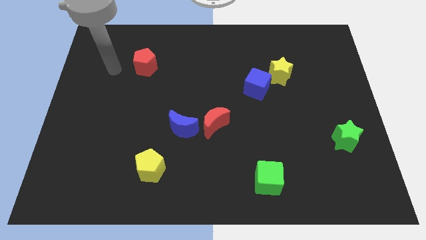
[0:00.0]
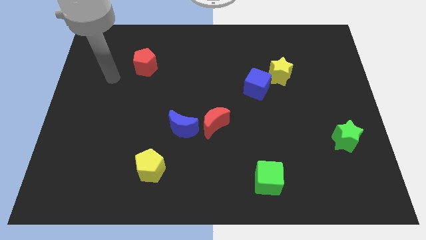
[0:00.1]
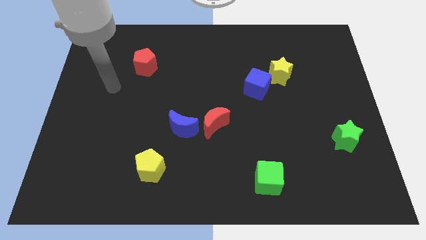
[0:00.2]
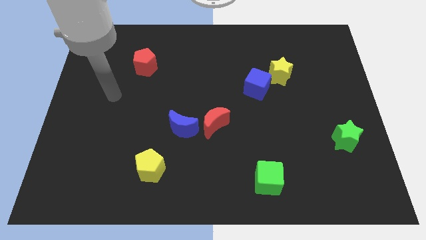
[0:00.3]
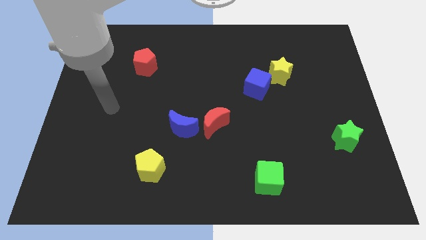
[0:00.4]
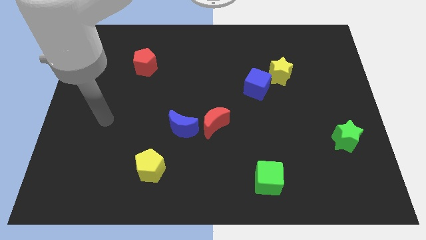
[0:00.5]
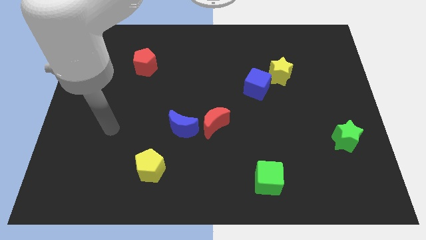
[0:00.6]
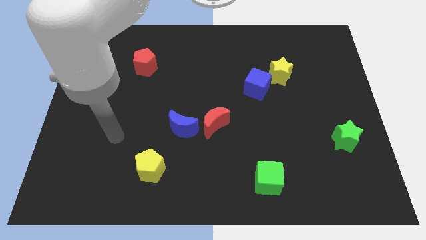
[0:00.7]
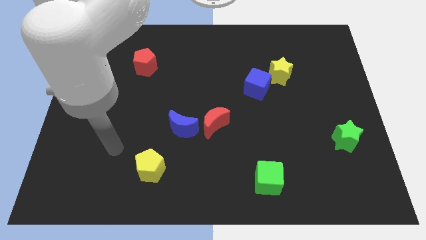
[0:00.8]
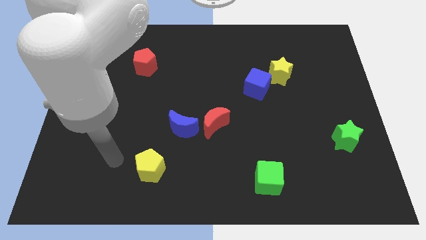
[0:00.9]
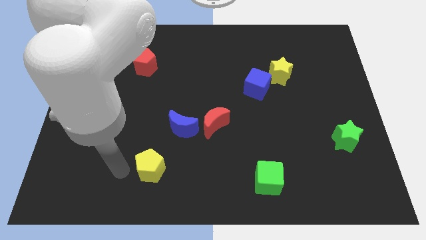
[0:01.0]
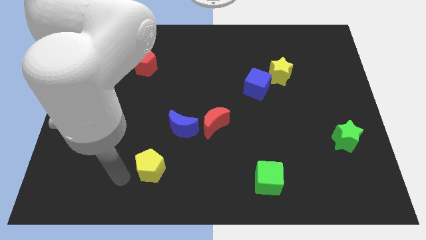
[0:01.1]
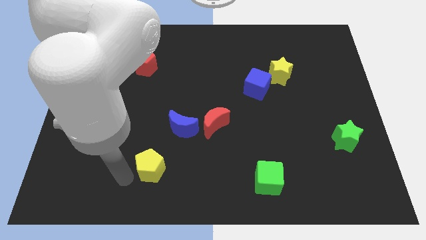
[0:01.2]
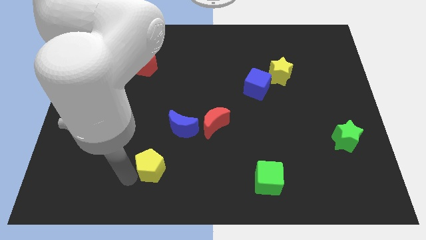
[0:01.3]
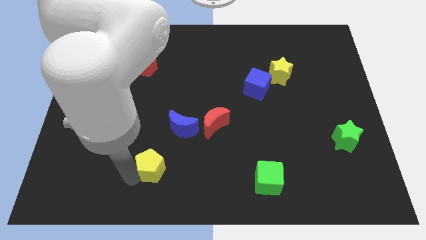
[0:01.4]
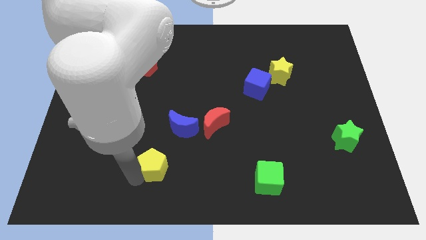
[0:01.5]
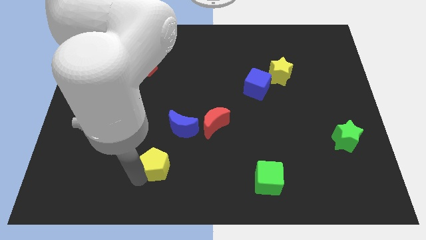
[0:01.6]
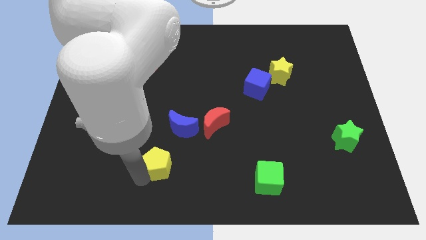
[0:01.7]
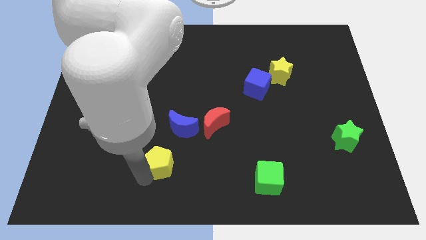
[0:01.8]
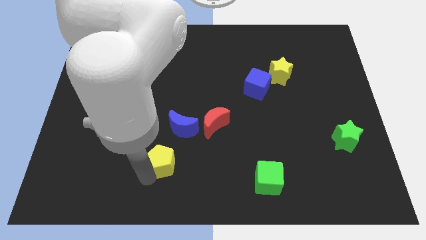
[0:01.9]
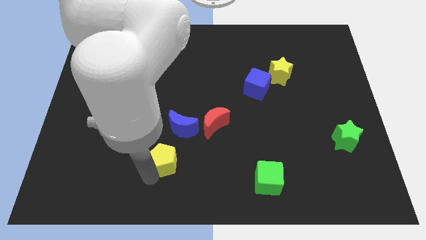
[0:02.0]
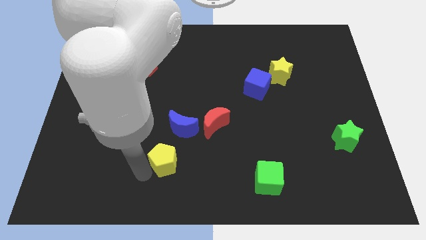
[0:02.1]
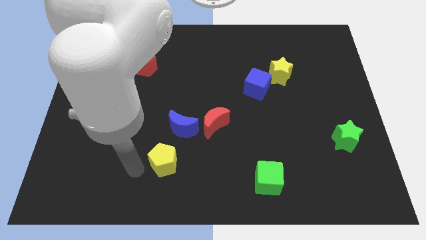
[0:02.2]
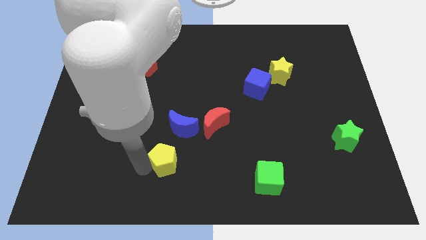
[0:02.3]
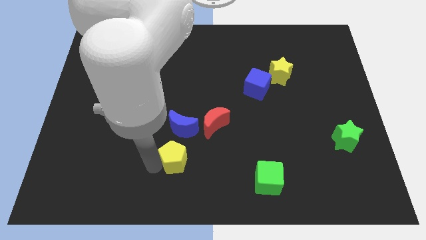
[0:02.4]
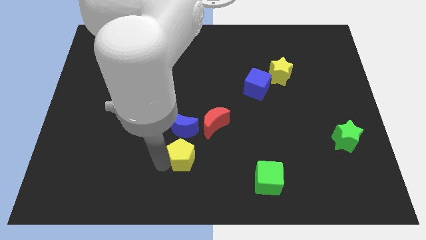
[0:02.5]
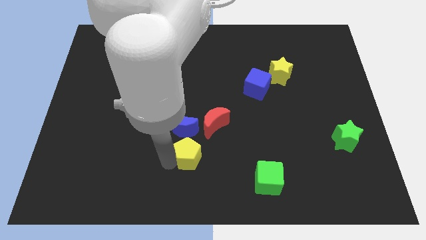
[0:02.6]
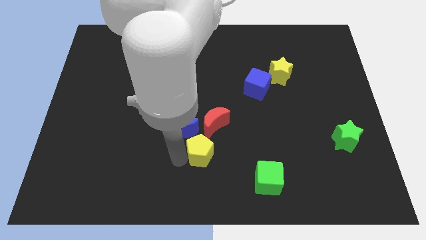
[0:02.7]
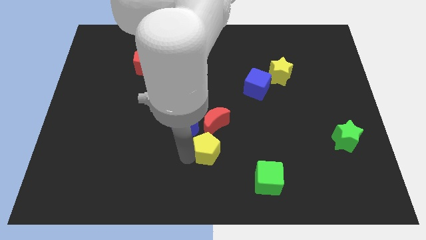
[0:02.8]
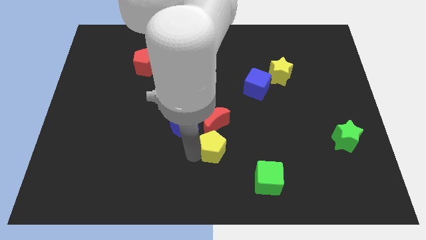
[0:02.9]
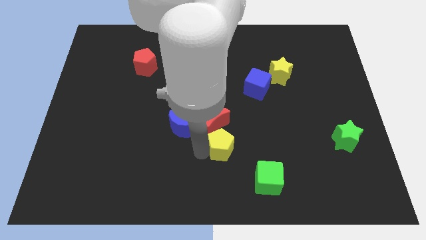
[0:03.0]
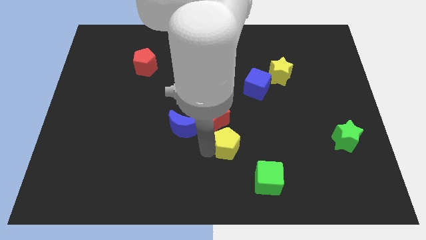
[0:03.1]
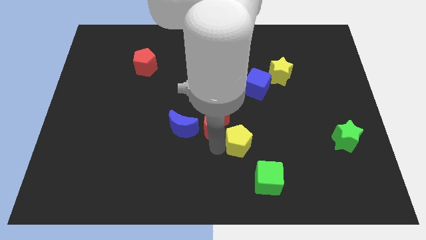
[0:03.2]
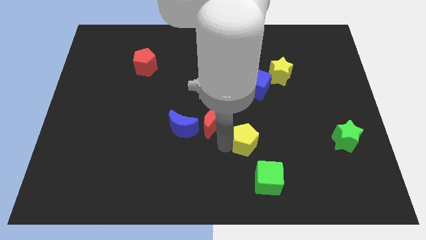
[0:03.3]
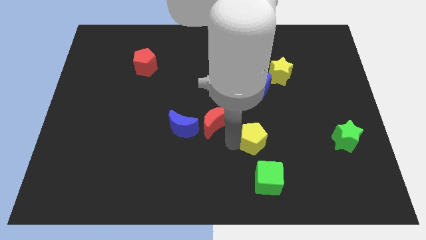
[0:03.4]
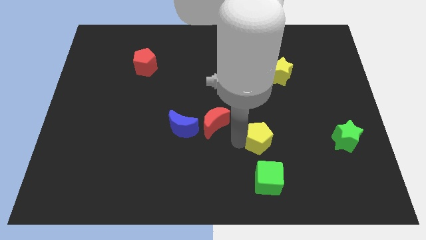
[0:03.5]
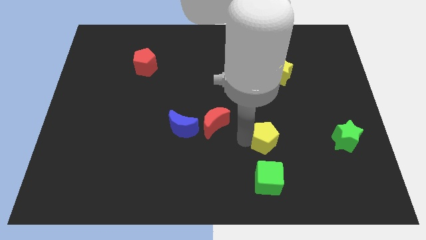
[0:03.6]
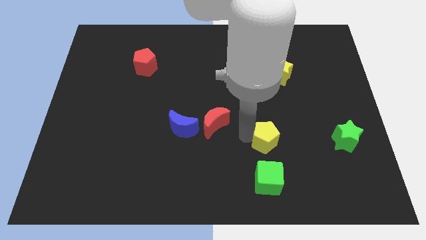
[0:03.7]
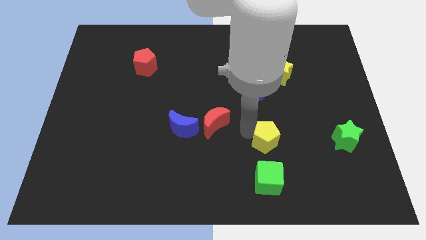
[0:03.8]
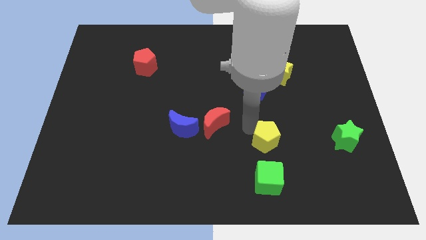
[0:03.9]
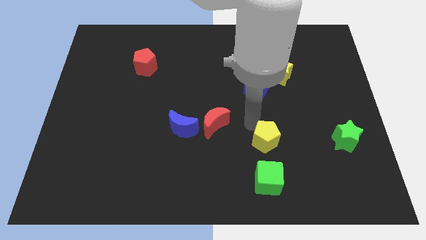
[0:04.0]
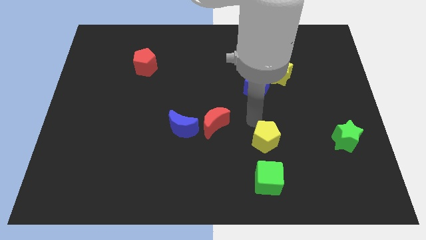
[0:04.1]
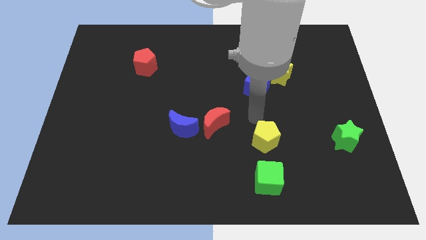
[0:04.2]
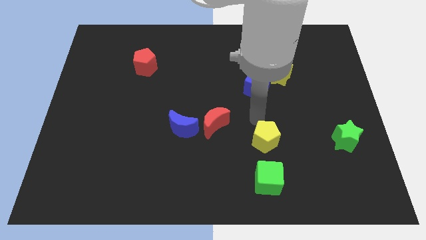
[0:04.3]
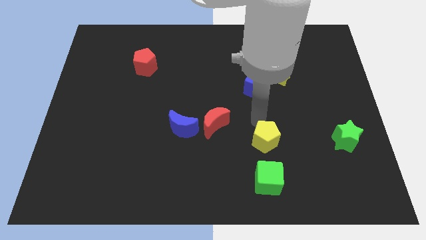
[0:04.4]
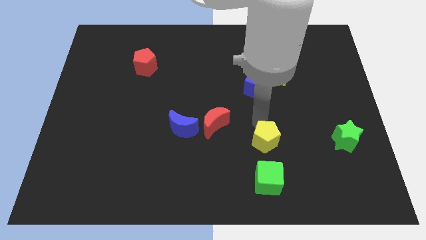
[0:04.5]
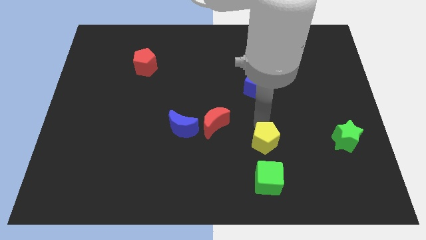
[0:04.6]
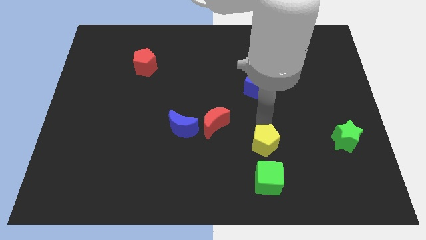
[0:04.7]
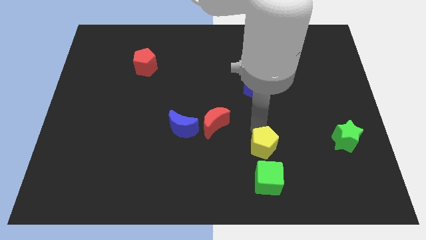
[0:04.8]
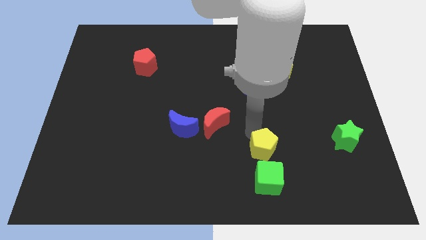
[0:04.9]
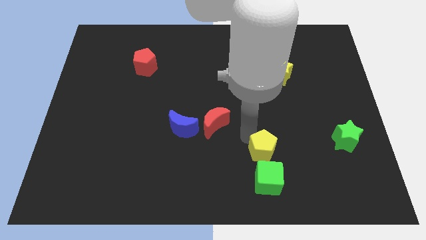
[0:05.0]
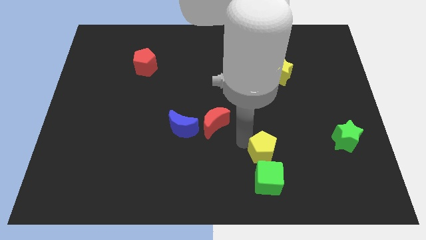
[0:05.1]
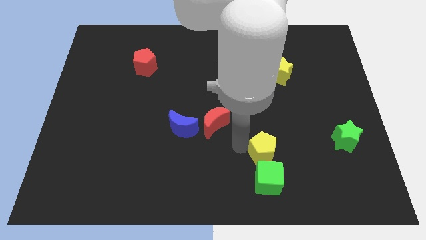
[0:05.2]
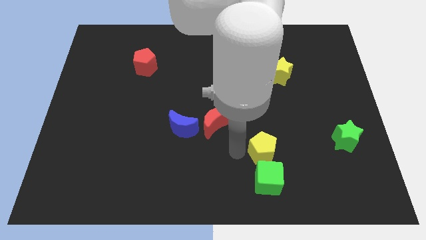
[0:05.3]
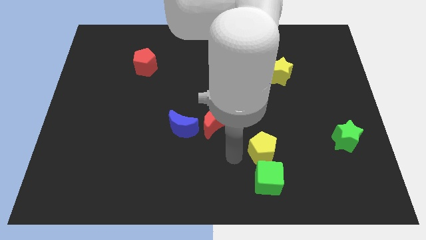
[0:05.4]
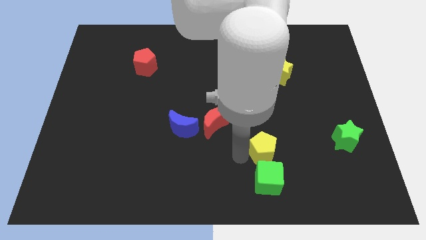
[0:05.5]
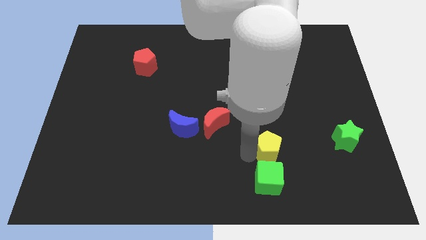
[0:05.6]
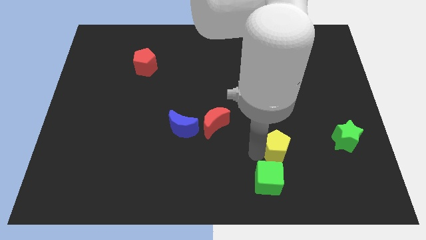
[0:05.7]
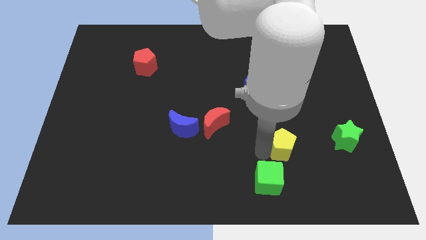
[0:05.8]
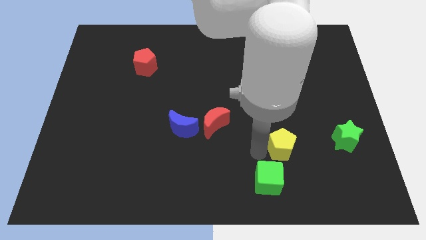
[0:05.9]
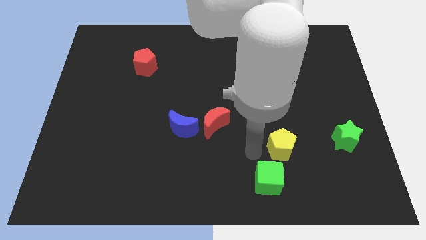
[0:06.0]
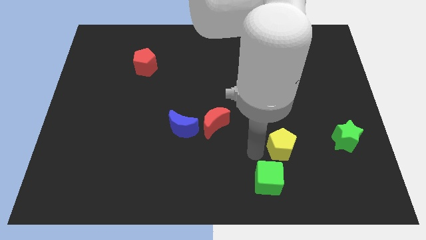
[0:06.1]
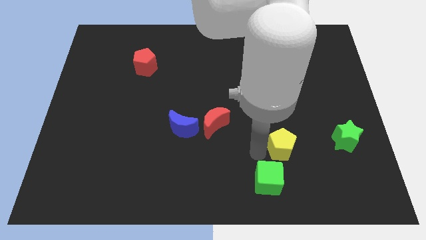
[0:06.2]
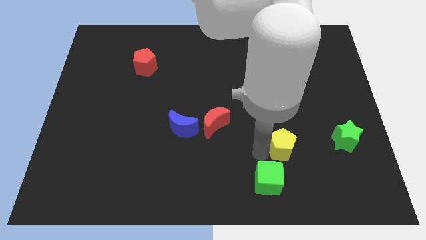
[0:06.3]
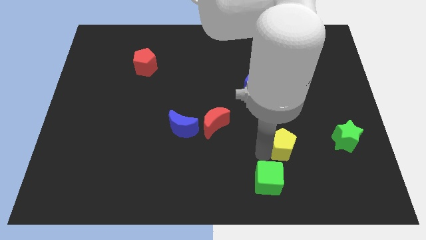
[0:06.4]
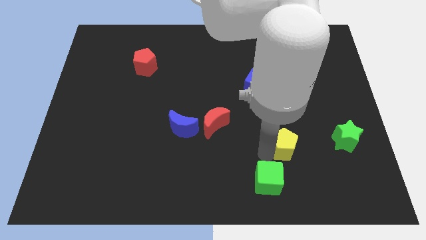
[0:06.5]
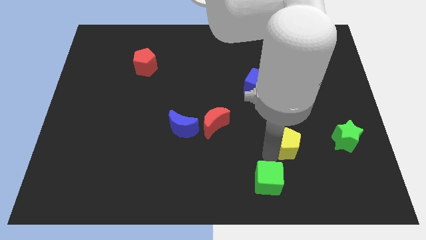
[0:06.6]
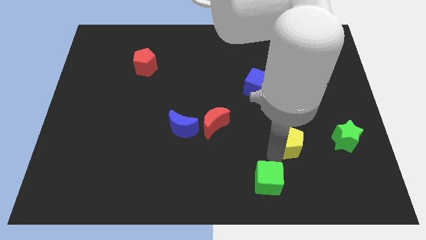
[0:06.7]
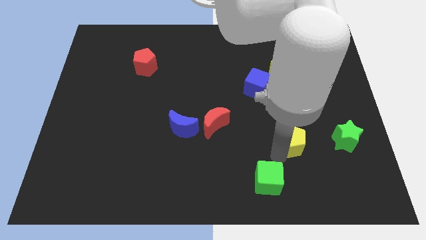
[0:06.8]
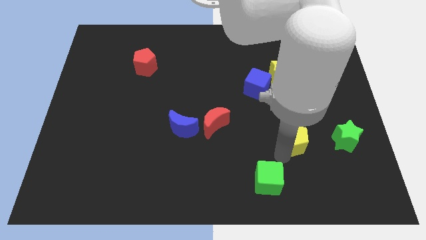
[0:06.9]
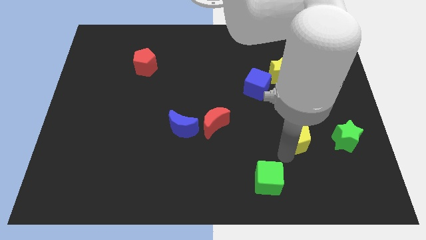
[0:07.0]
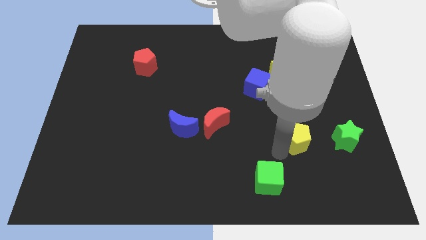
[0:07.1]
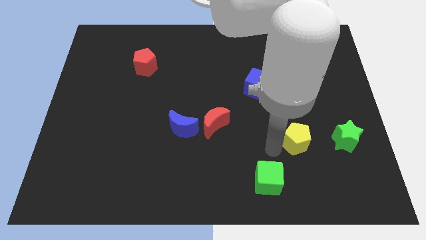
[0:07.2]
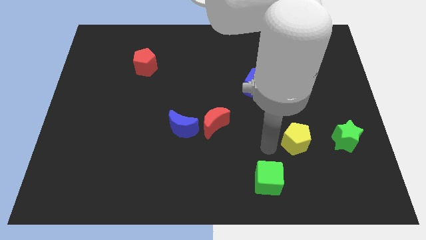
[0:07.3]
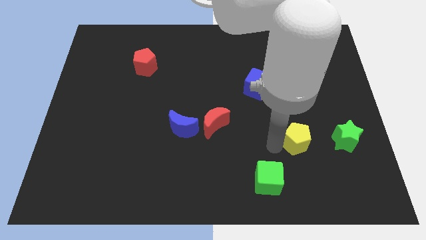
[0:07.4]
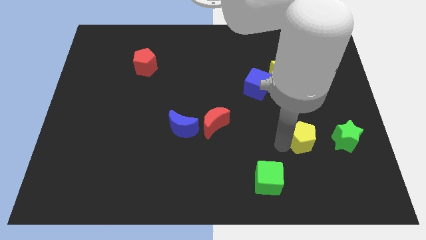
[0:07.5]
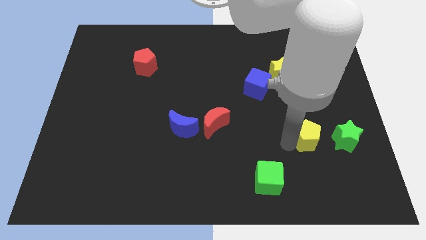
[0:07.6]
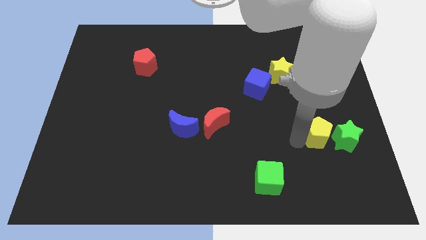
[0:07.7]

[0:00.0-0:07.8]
push the yellow pentagon close to the green star
